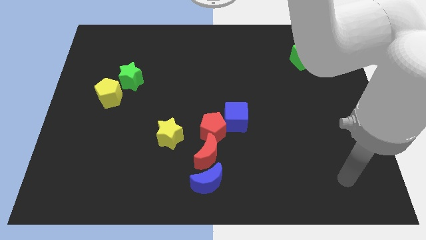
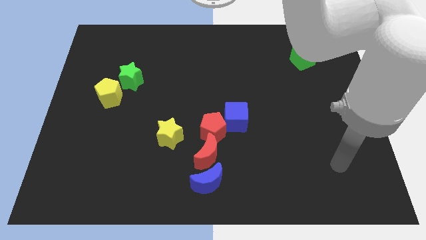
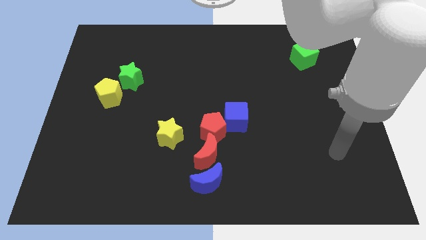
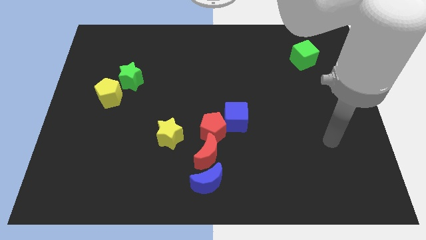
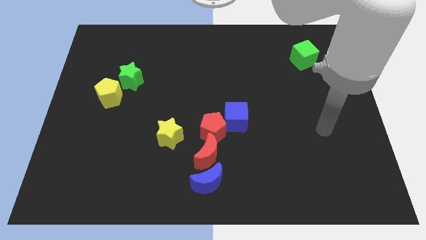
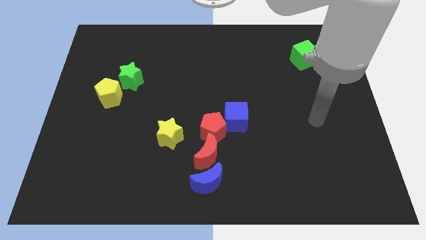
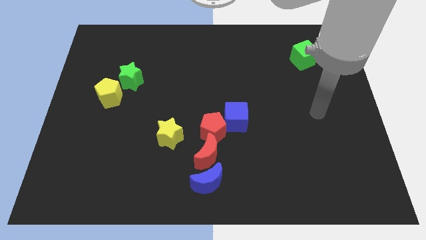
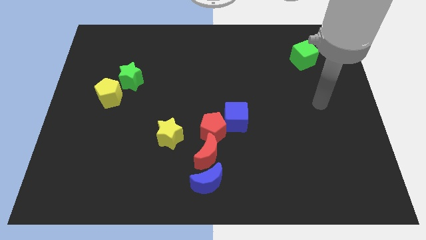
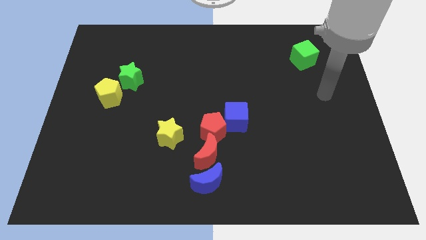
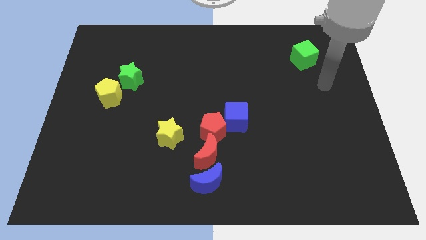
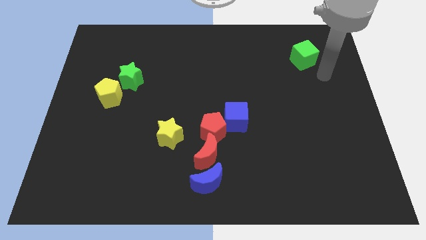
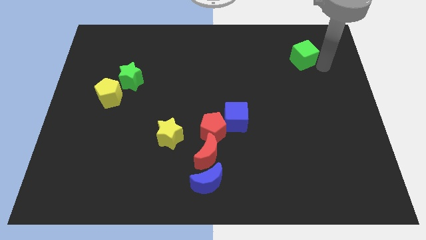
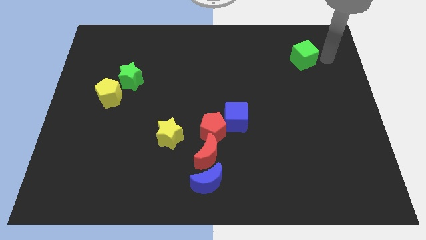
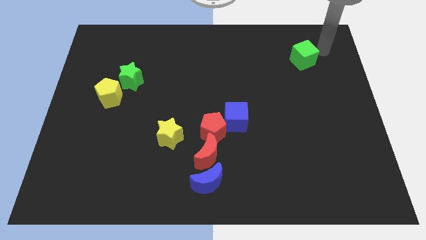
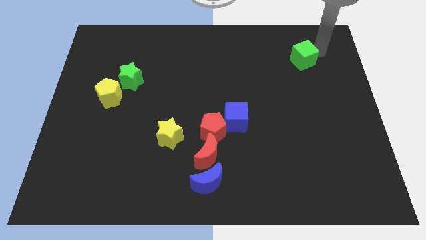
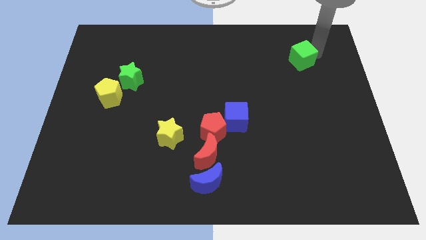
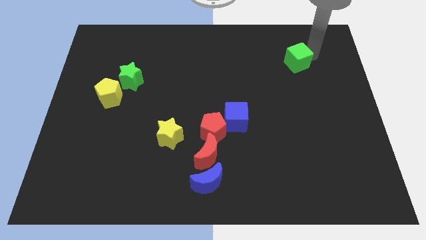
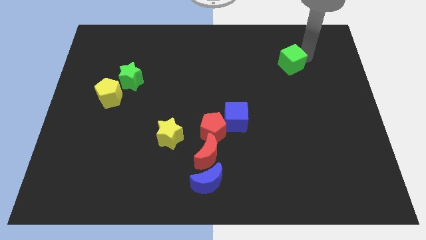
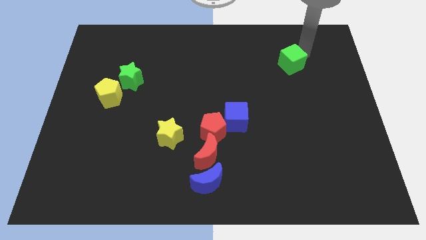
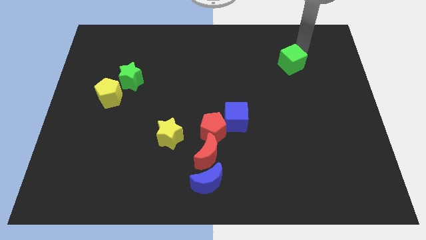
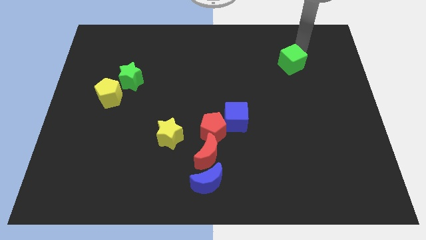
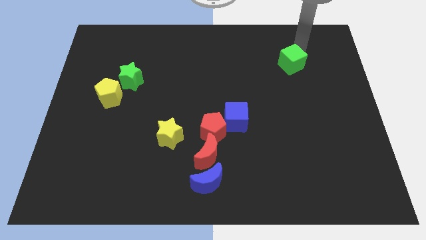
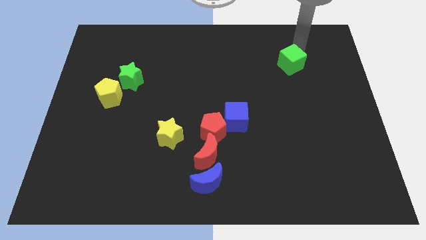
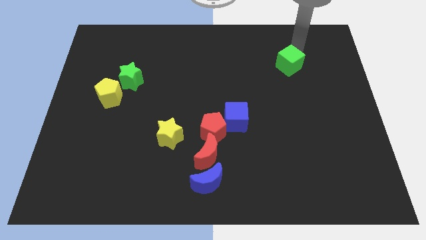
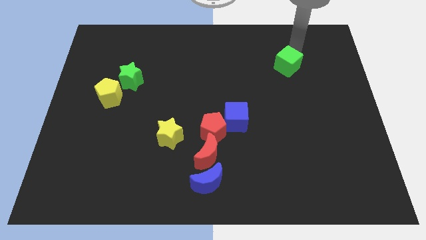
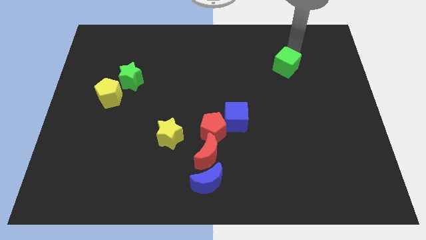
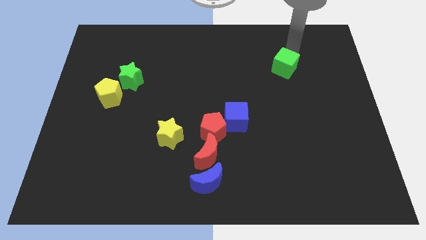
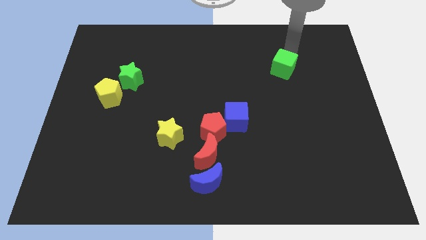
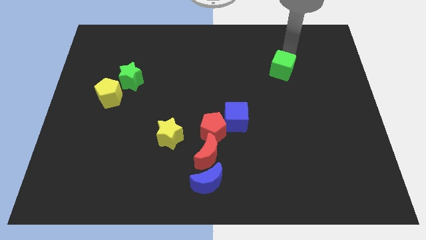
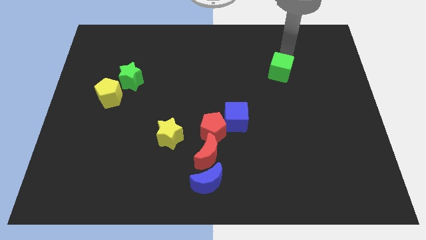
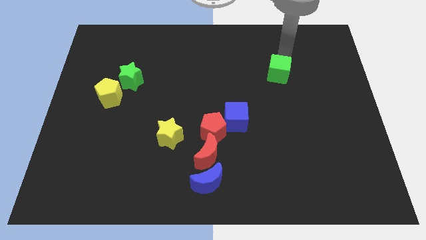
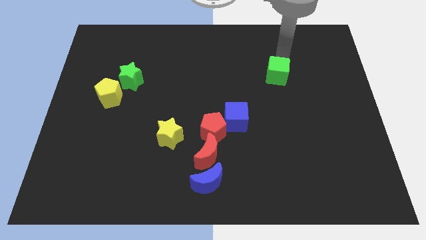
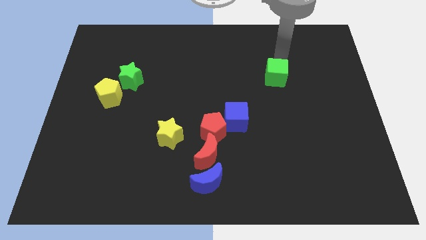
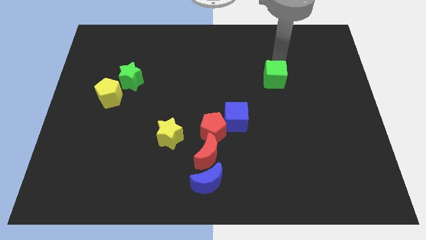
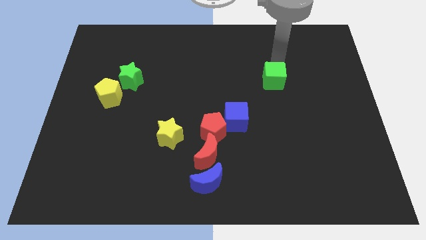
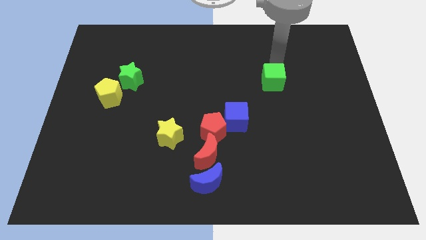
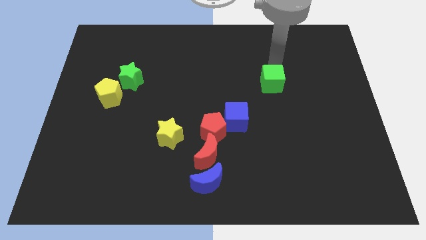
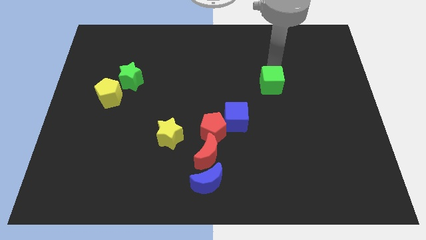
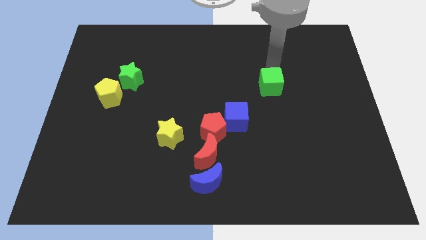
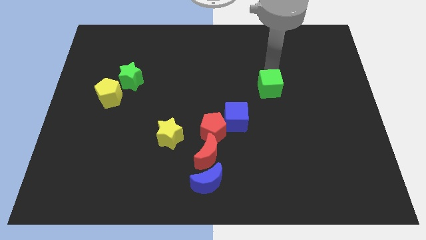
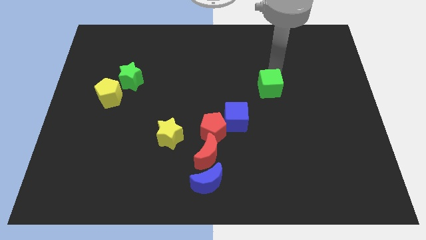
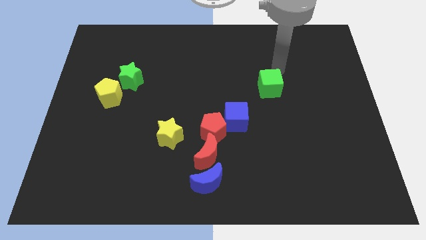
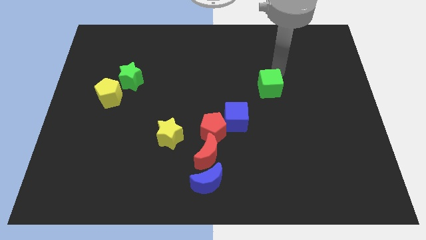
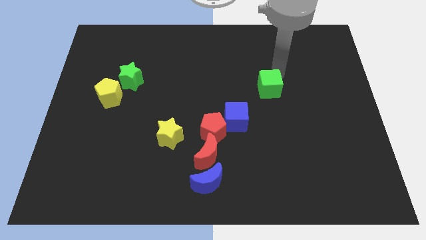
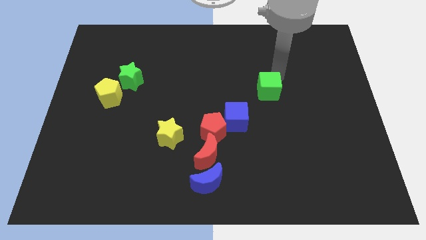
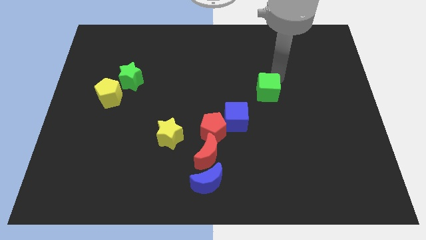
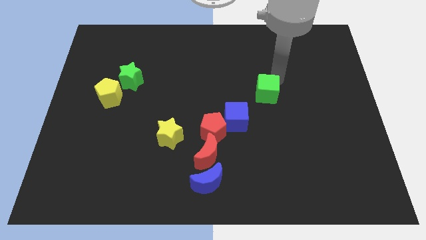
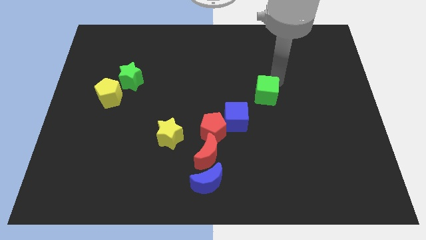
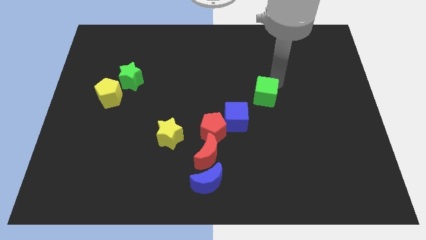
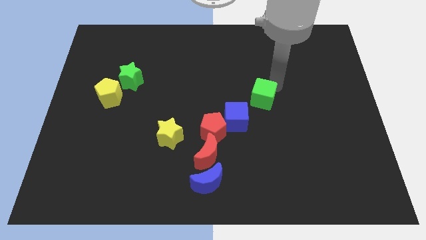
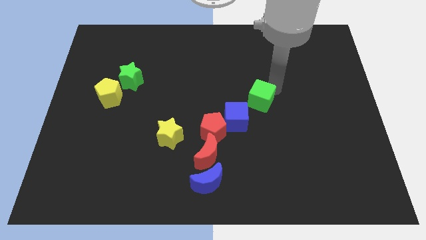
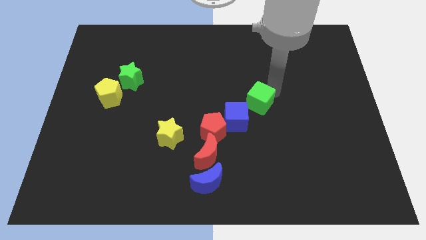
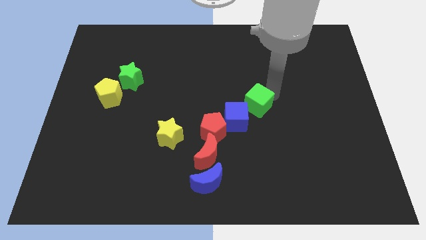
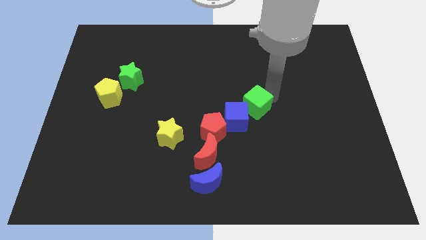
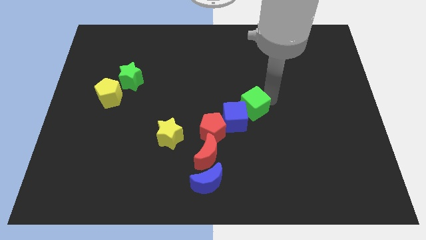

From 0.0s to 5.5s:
put the green cube close to the blue cube

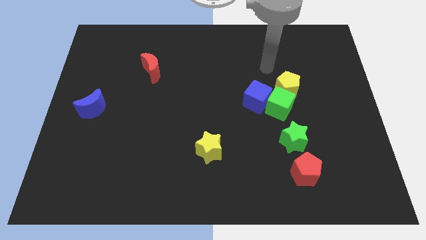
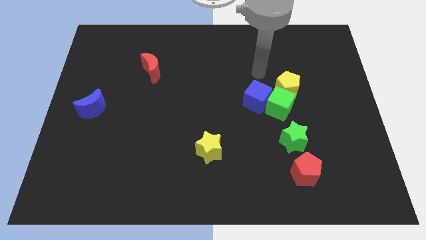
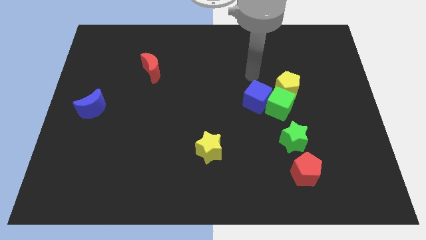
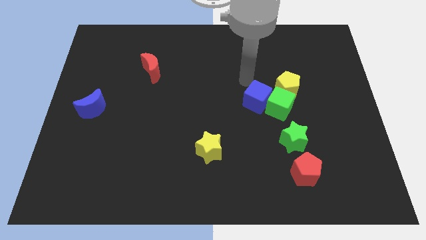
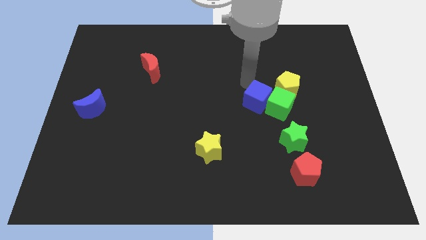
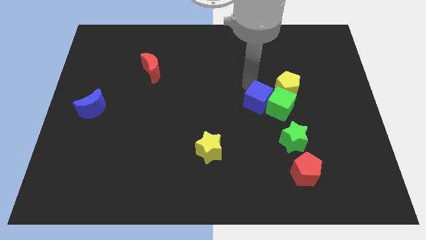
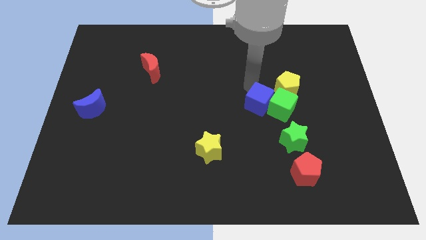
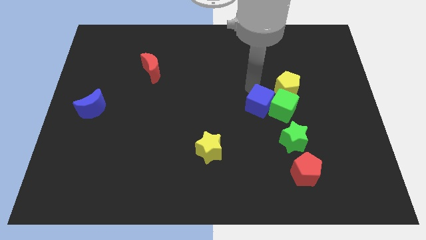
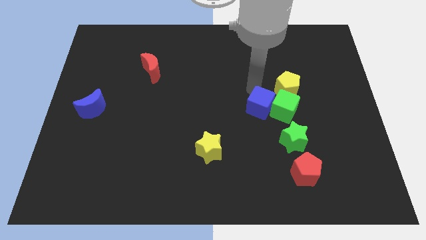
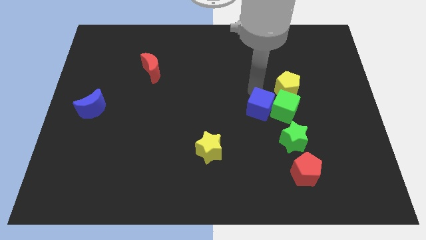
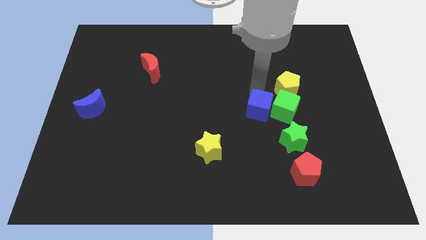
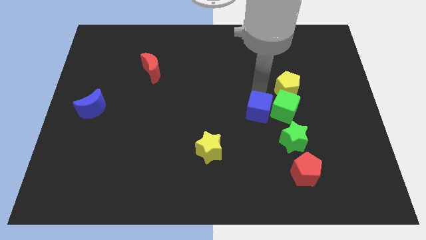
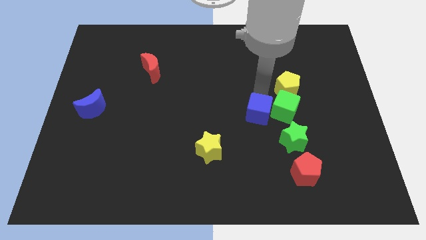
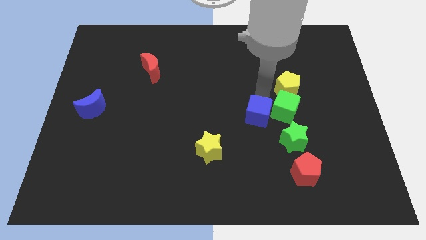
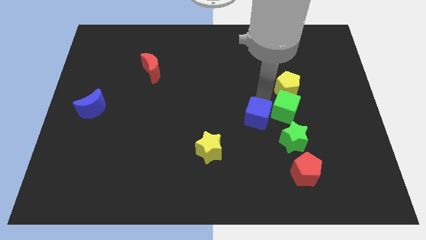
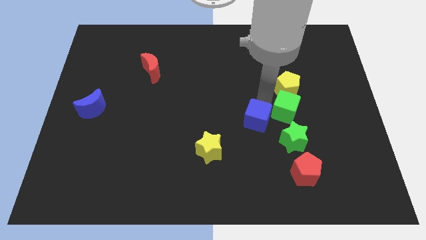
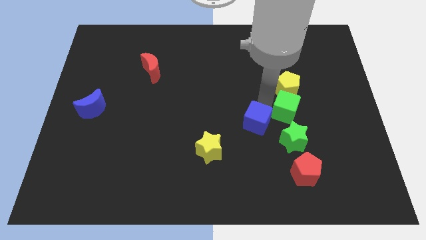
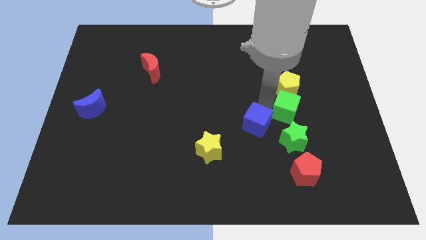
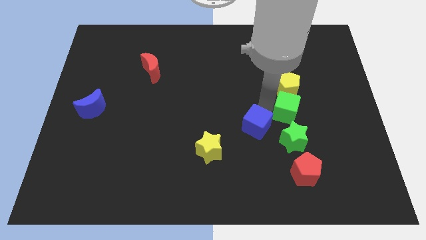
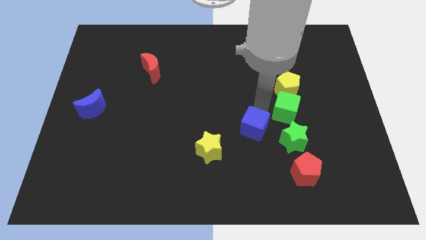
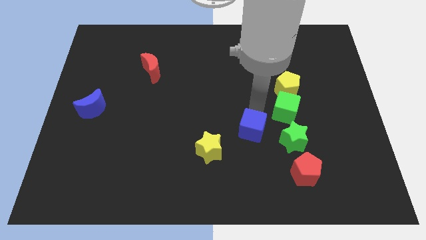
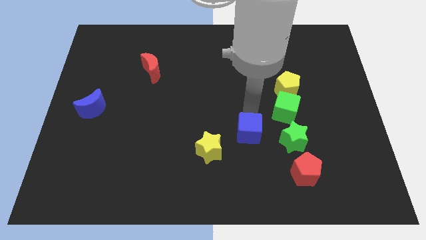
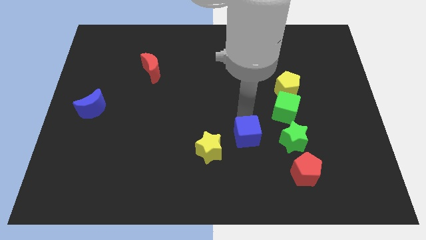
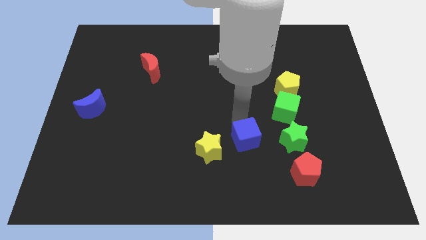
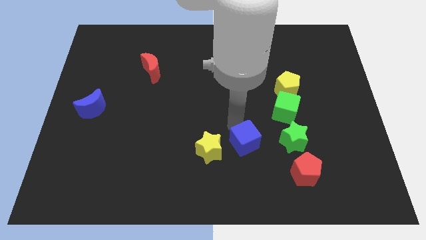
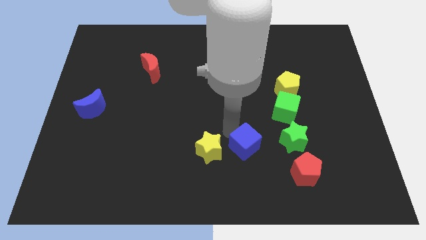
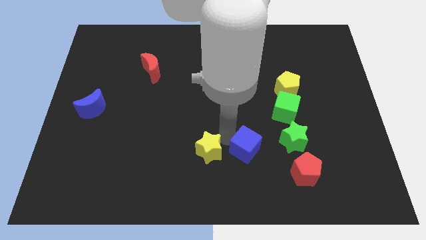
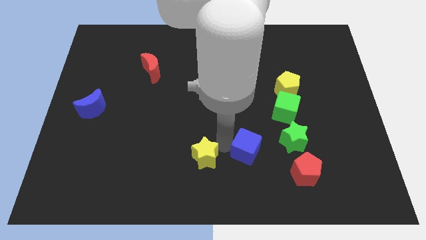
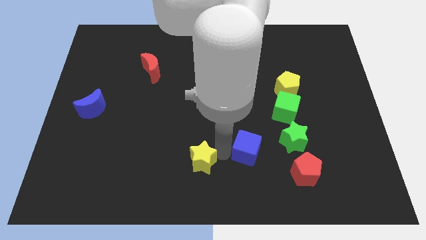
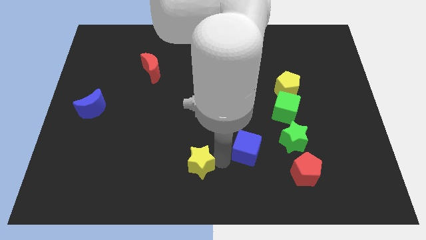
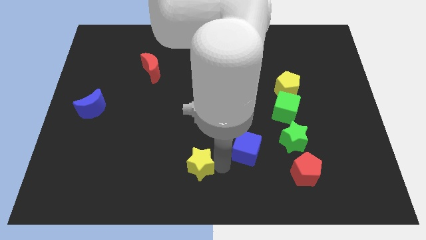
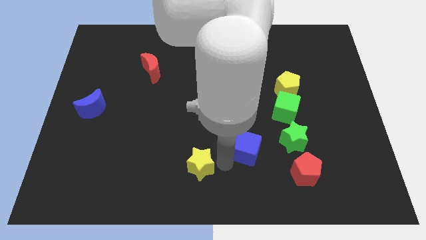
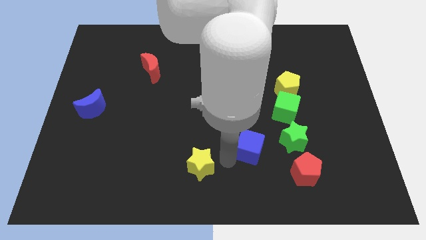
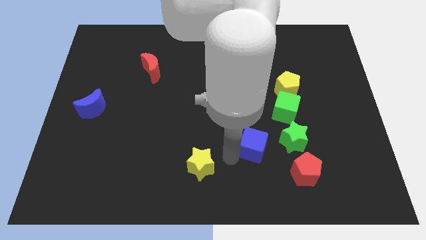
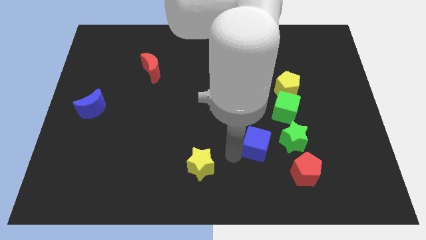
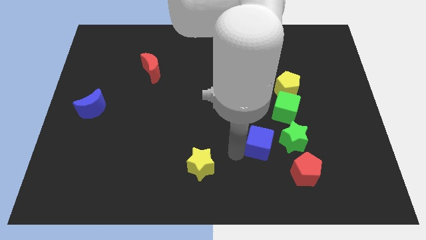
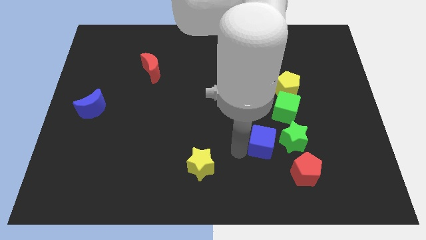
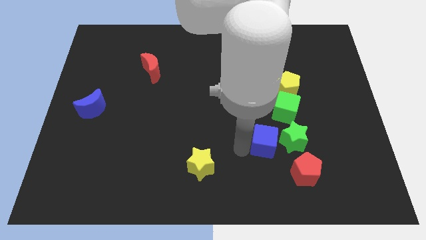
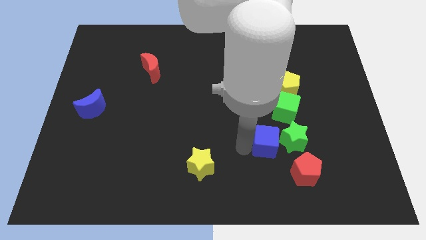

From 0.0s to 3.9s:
put the blue cube next to the green star
